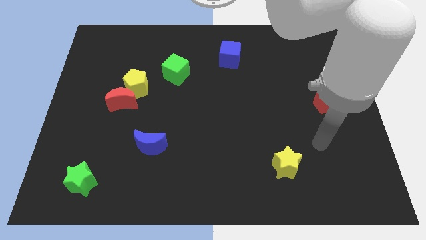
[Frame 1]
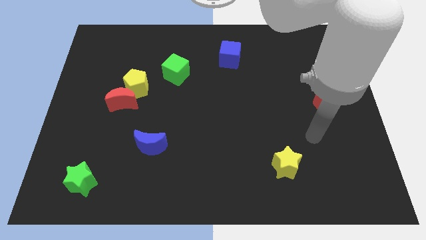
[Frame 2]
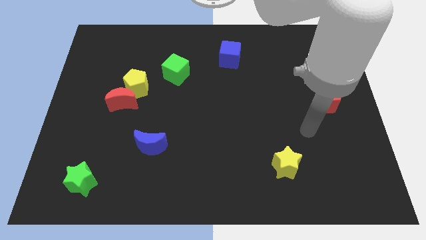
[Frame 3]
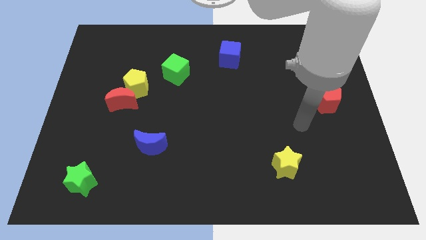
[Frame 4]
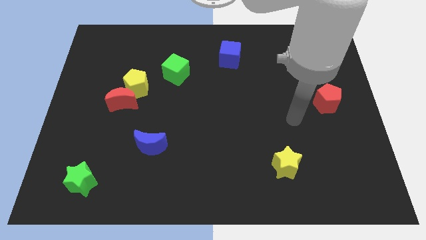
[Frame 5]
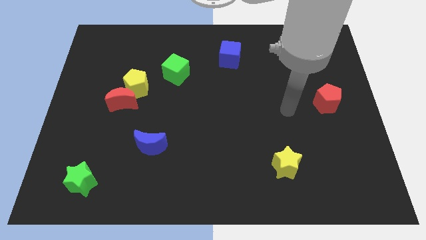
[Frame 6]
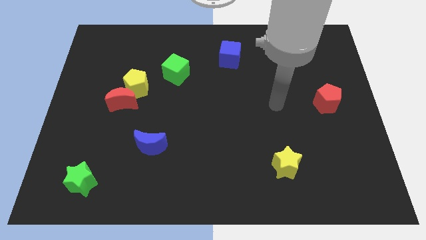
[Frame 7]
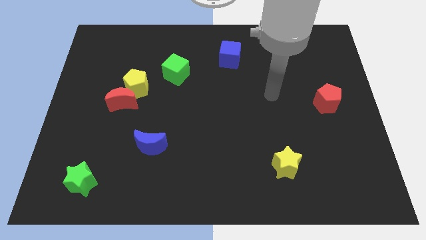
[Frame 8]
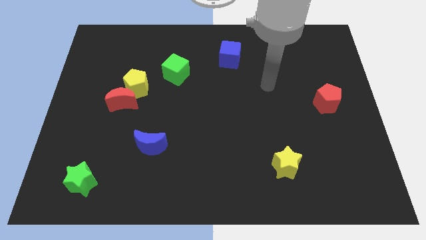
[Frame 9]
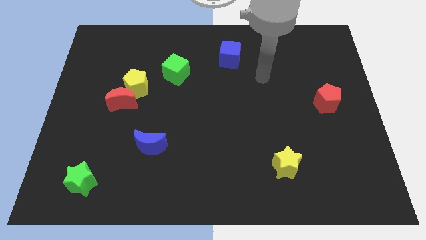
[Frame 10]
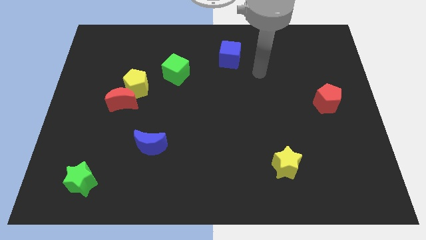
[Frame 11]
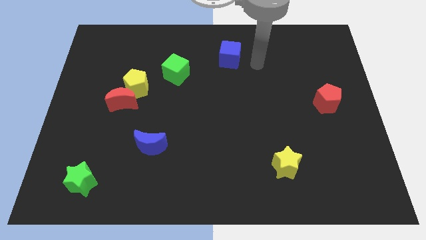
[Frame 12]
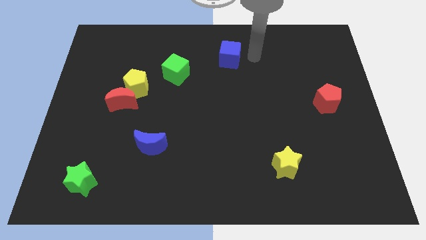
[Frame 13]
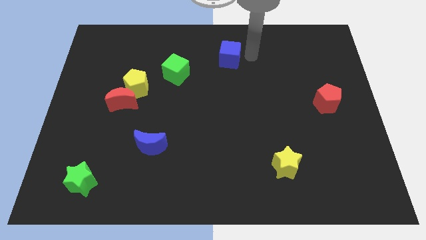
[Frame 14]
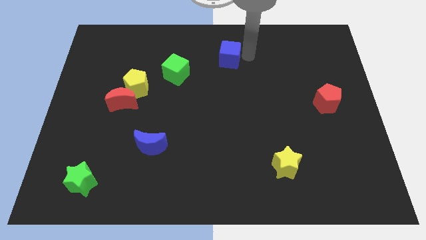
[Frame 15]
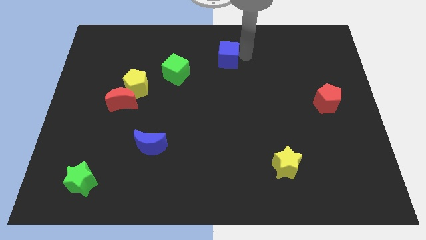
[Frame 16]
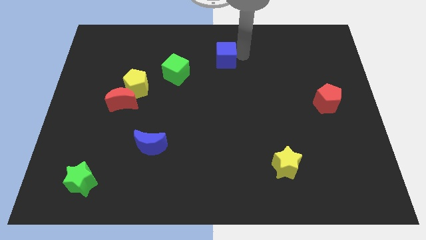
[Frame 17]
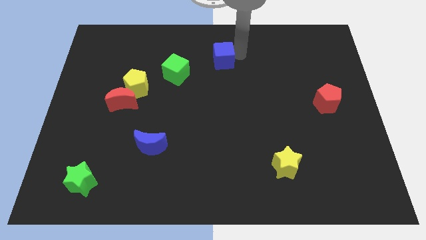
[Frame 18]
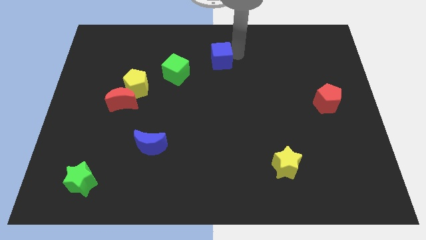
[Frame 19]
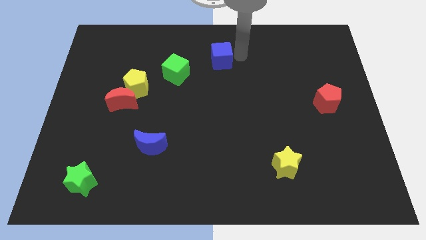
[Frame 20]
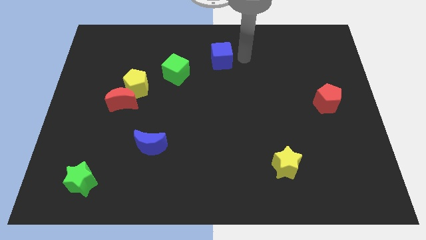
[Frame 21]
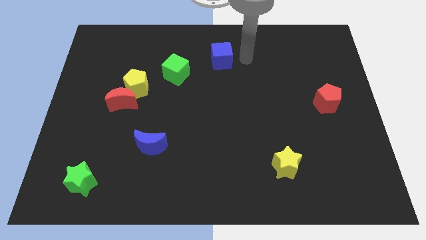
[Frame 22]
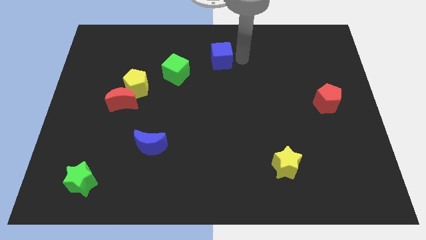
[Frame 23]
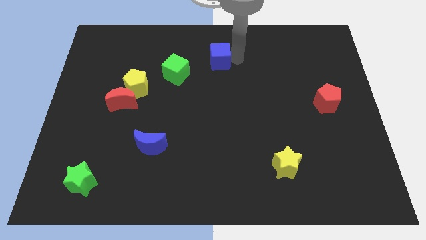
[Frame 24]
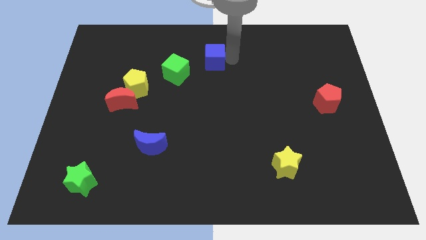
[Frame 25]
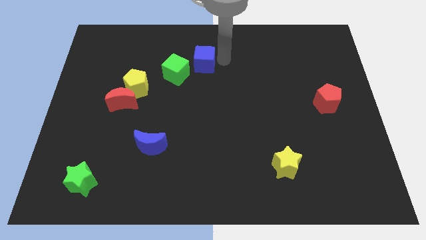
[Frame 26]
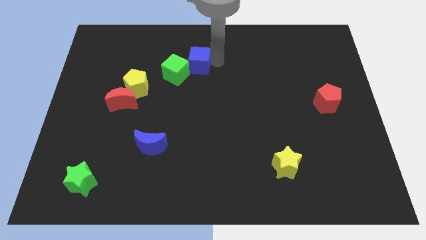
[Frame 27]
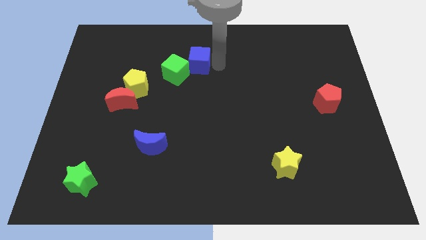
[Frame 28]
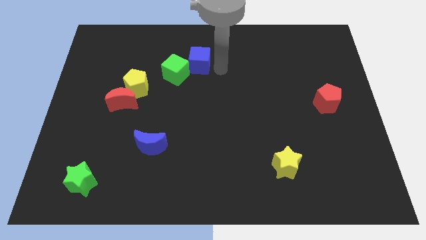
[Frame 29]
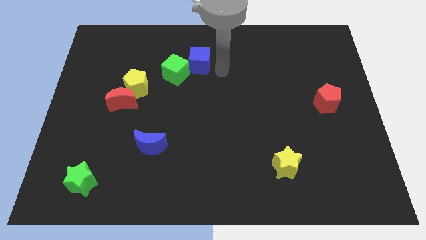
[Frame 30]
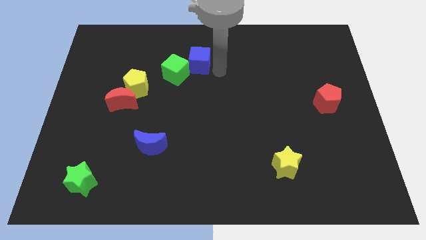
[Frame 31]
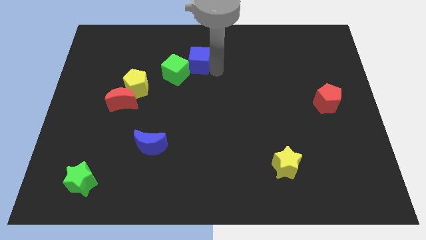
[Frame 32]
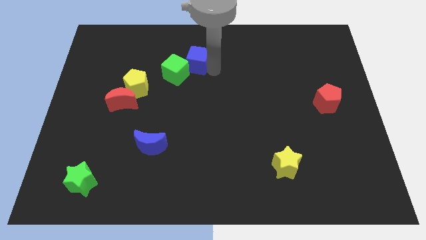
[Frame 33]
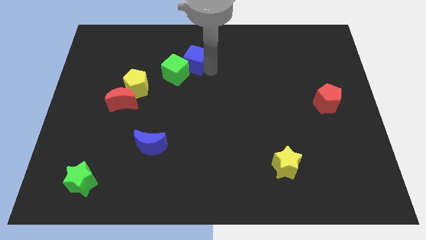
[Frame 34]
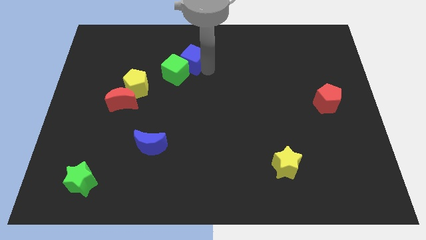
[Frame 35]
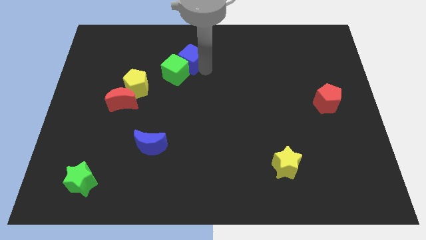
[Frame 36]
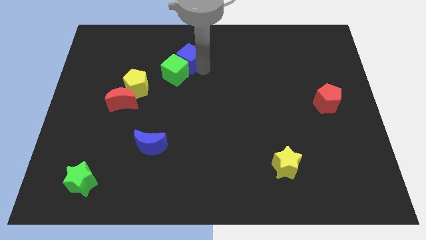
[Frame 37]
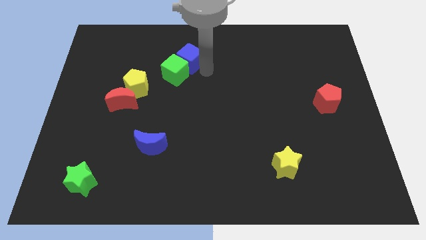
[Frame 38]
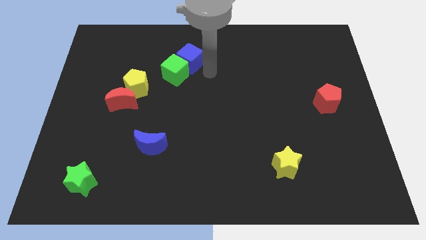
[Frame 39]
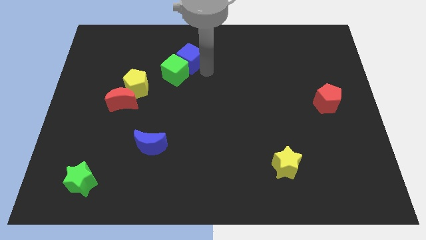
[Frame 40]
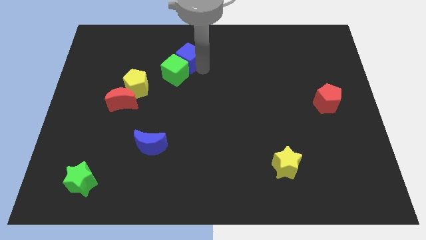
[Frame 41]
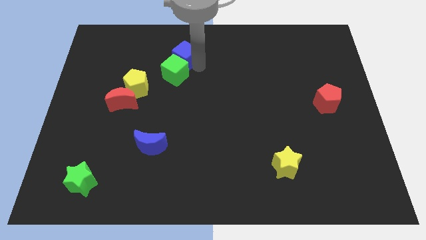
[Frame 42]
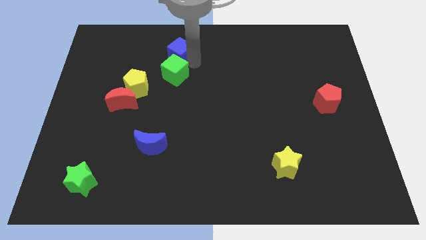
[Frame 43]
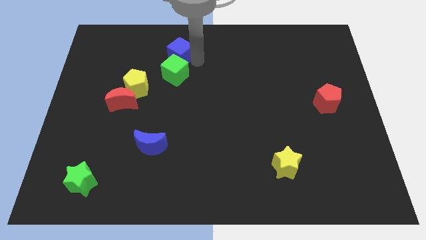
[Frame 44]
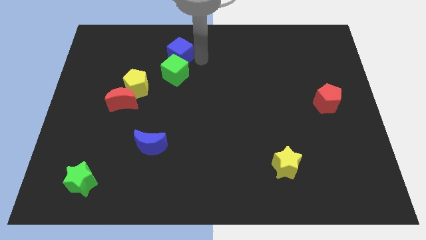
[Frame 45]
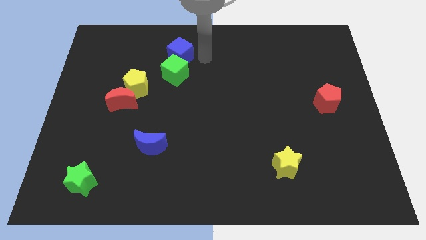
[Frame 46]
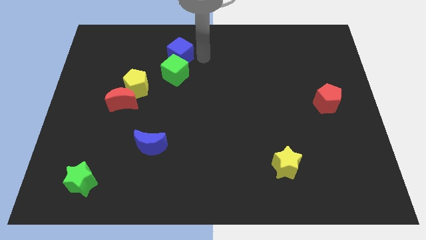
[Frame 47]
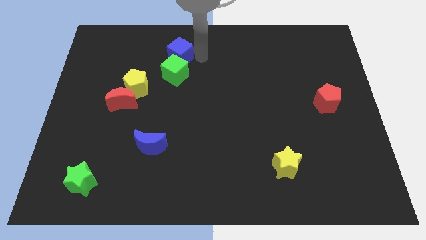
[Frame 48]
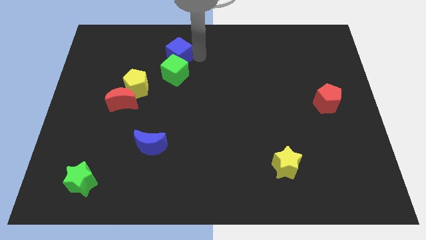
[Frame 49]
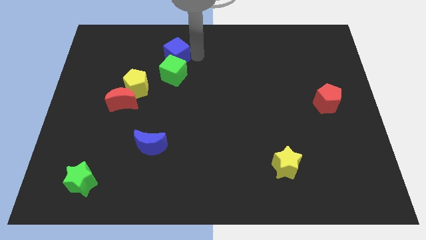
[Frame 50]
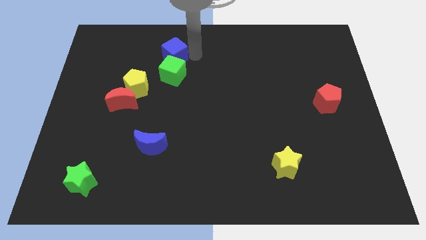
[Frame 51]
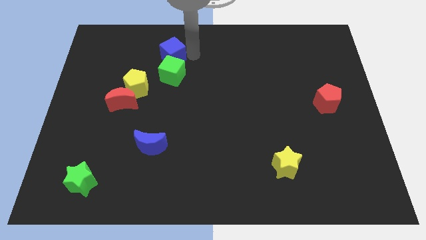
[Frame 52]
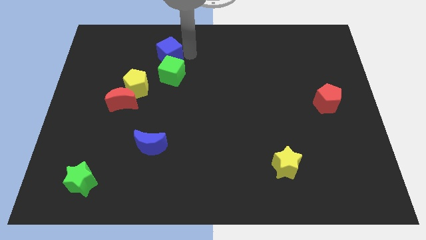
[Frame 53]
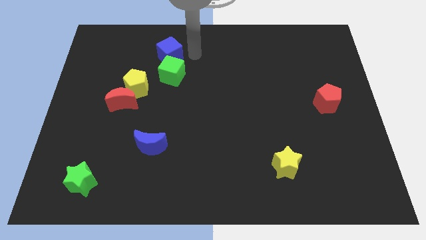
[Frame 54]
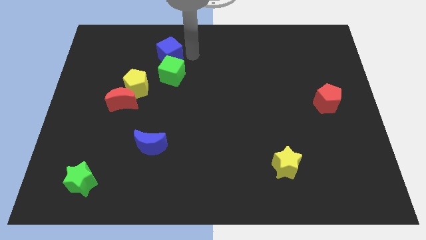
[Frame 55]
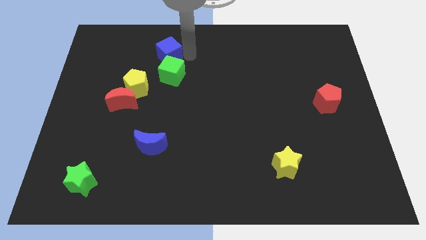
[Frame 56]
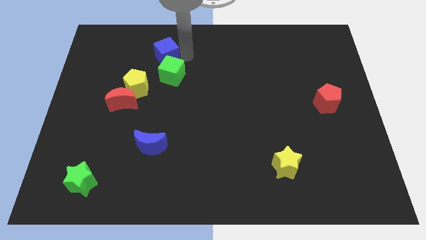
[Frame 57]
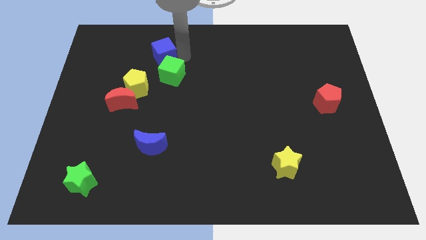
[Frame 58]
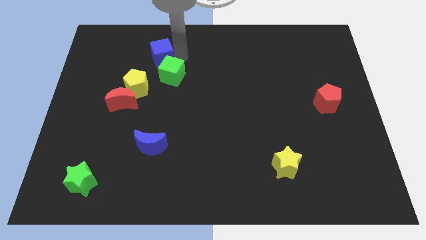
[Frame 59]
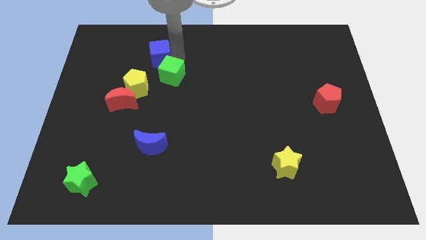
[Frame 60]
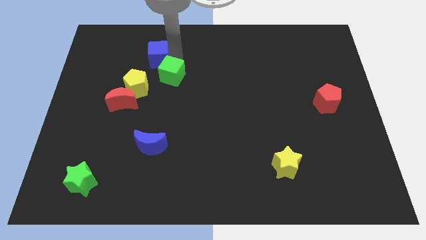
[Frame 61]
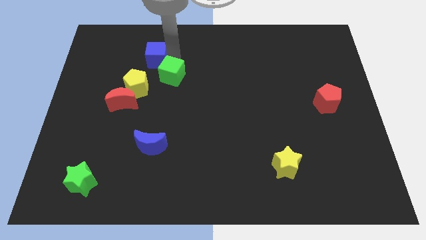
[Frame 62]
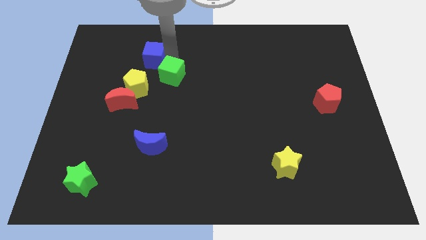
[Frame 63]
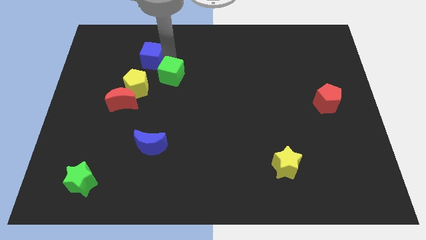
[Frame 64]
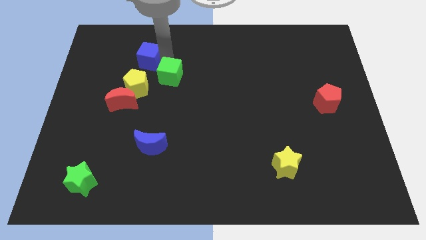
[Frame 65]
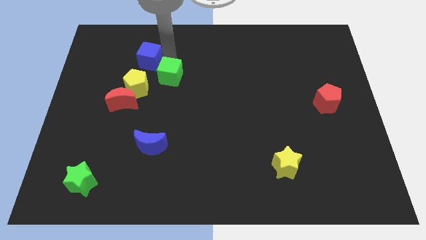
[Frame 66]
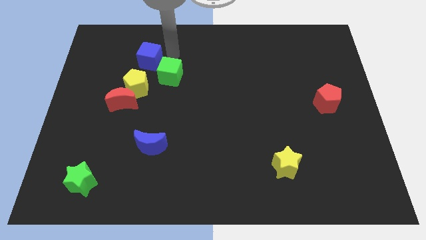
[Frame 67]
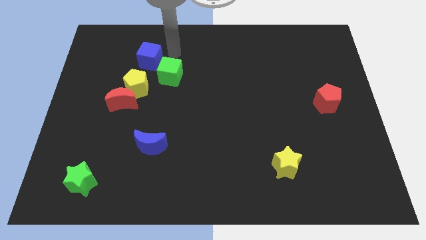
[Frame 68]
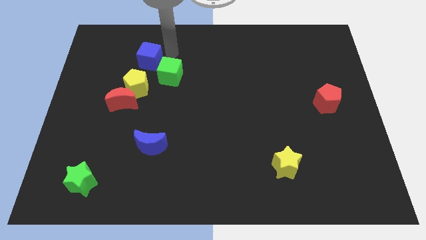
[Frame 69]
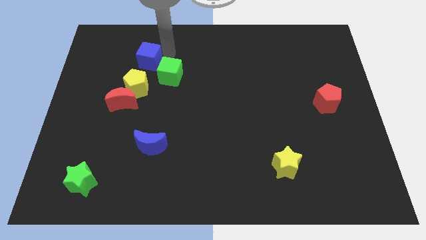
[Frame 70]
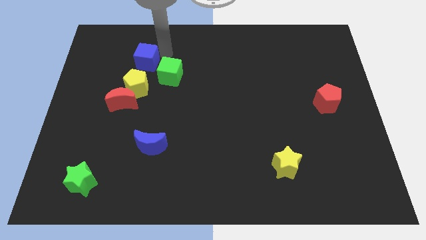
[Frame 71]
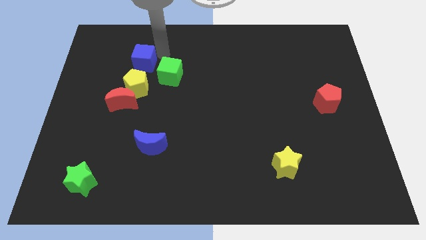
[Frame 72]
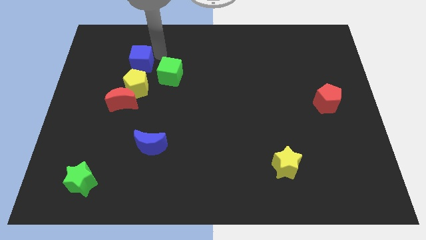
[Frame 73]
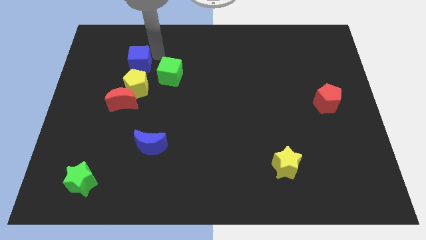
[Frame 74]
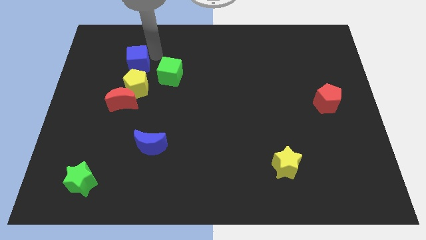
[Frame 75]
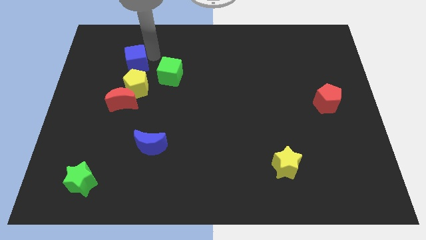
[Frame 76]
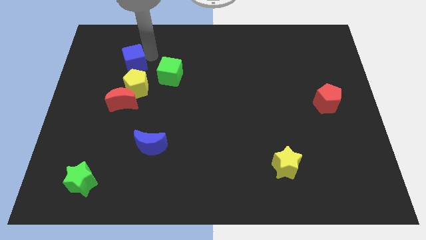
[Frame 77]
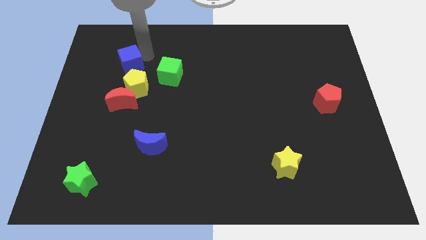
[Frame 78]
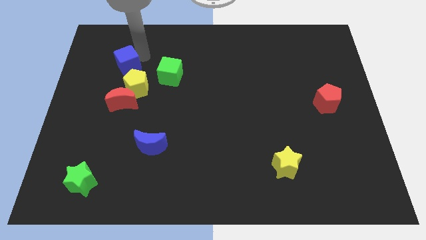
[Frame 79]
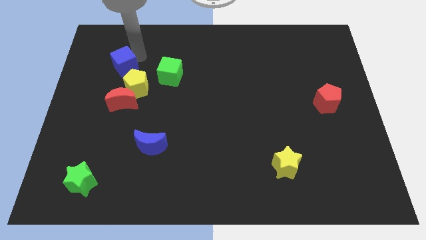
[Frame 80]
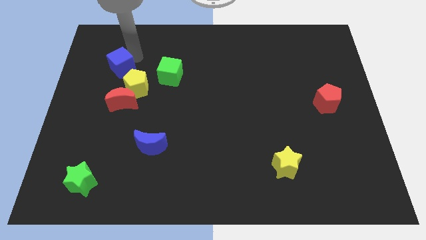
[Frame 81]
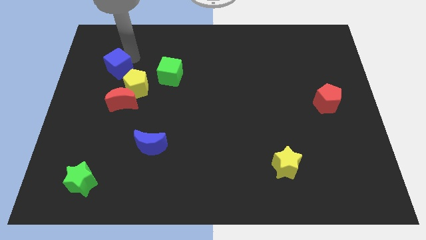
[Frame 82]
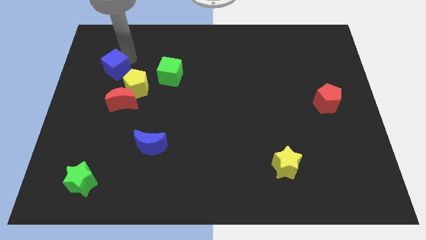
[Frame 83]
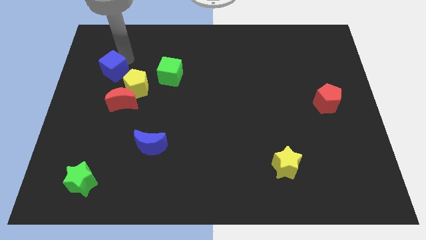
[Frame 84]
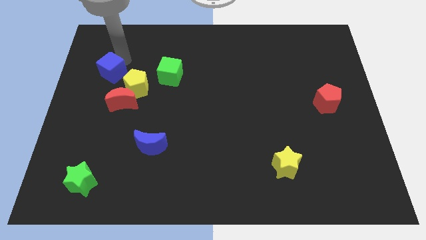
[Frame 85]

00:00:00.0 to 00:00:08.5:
move the blue cube to the top left side of the red moon
